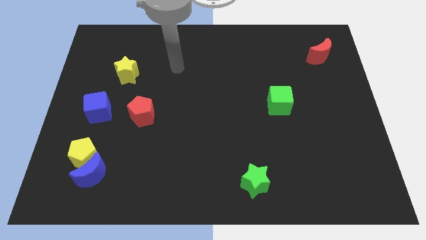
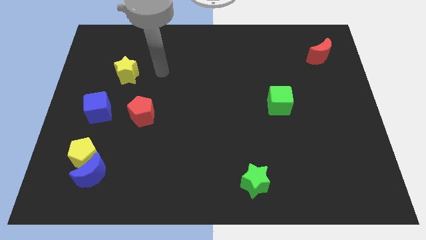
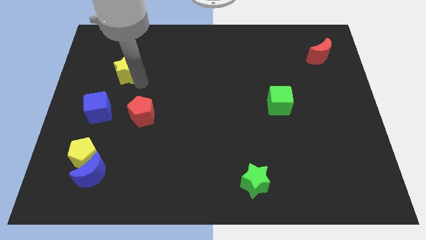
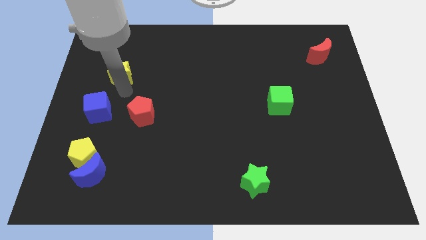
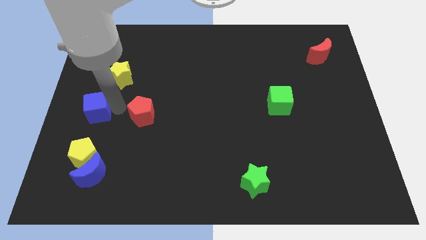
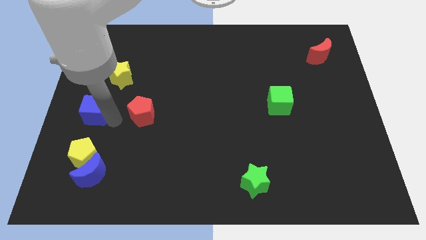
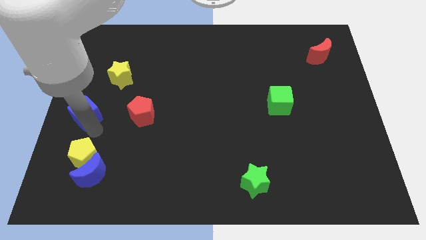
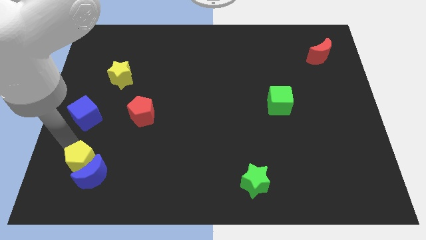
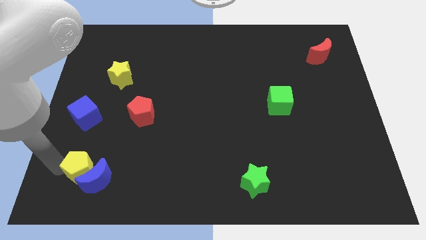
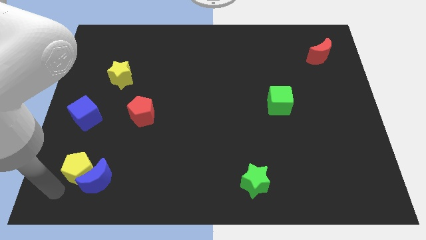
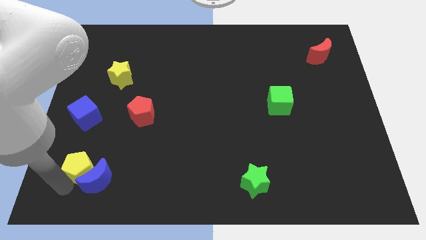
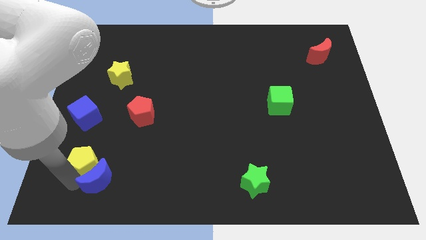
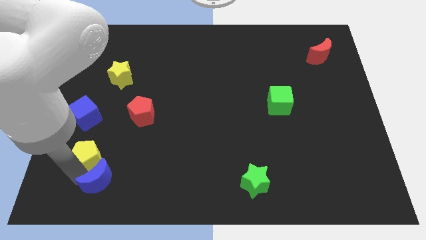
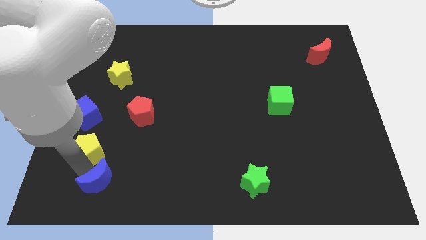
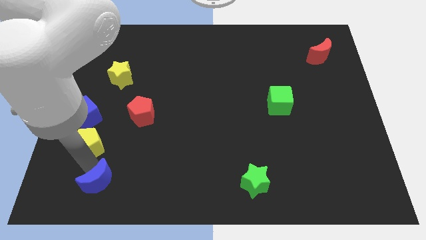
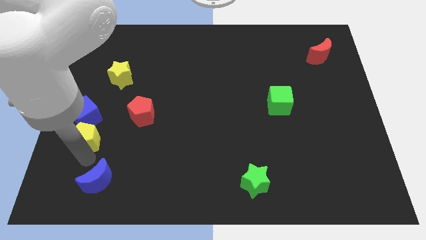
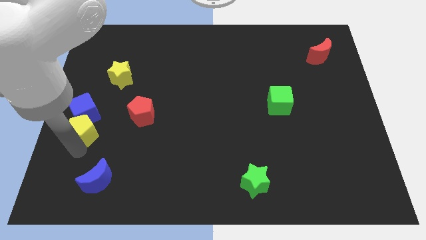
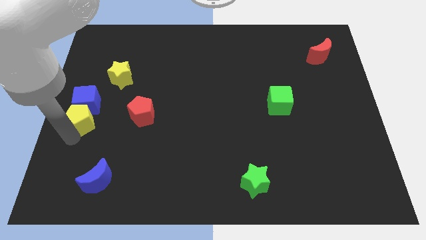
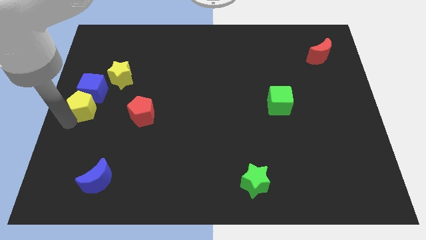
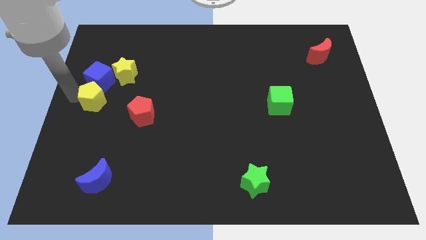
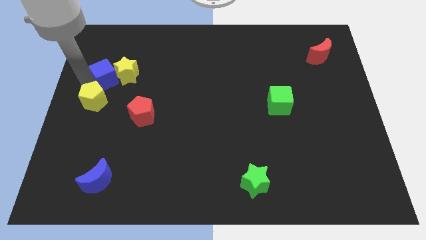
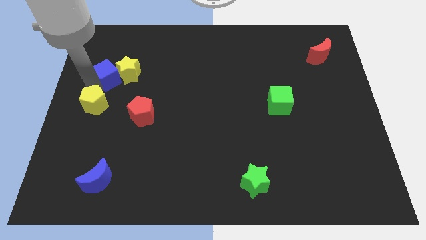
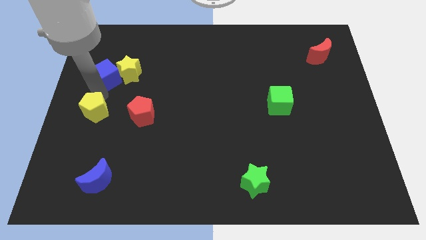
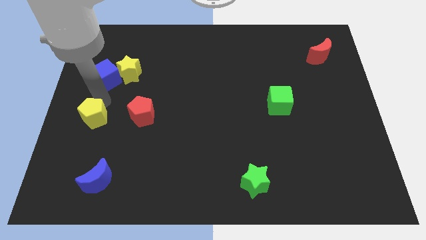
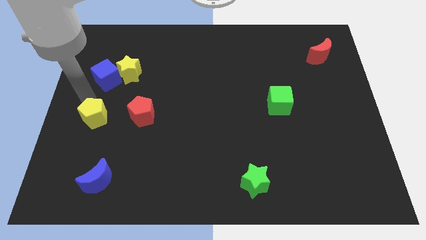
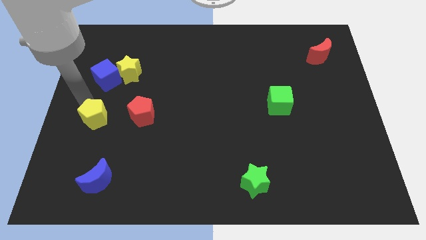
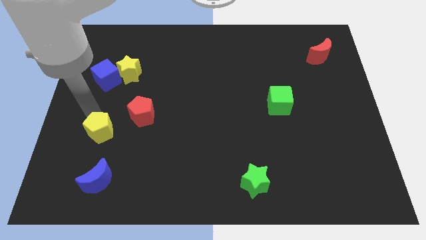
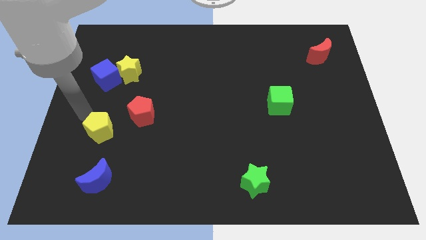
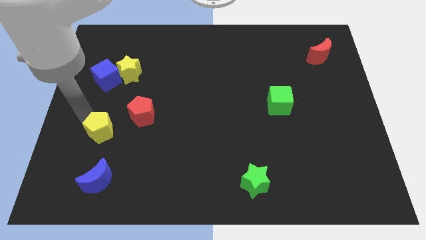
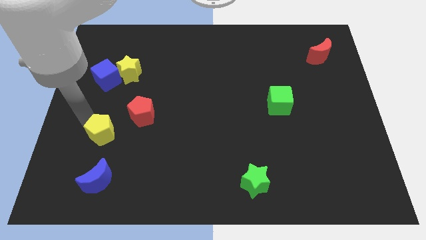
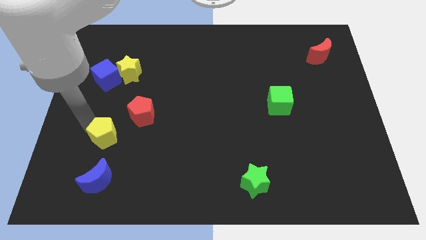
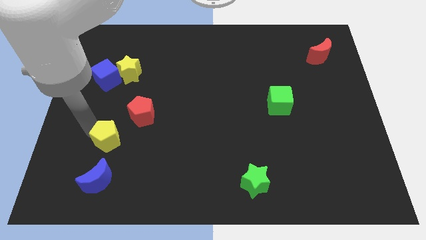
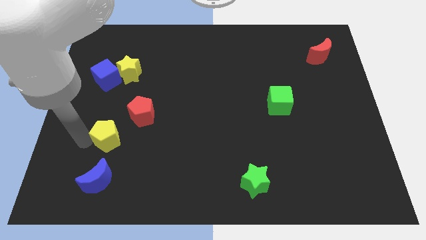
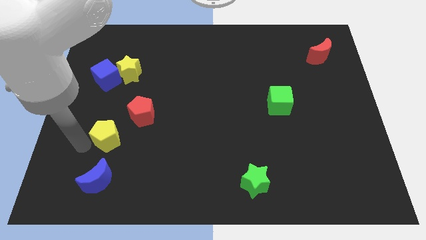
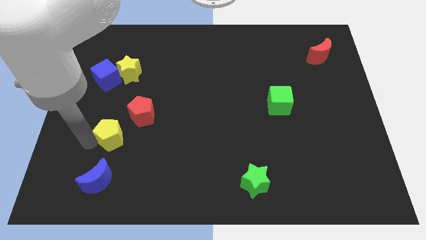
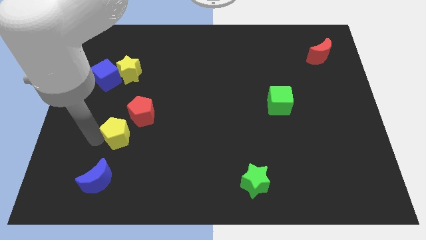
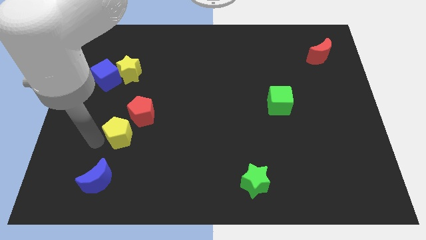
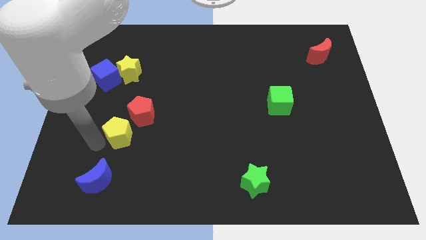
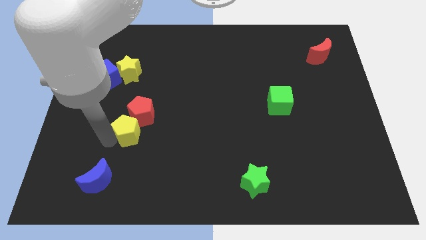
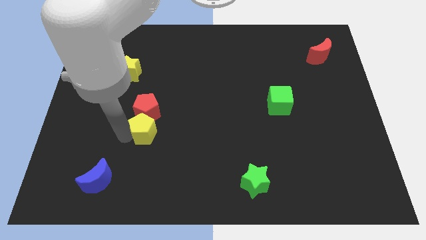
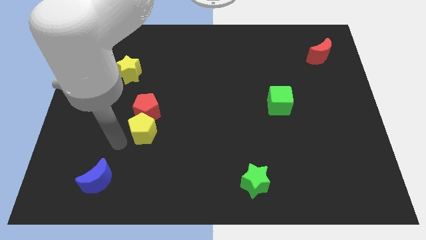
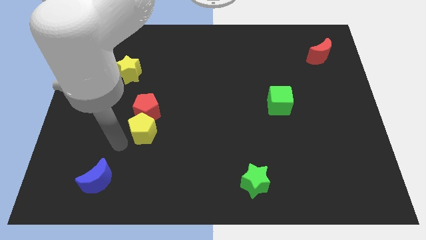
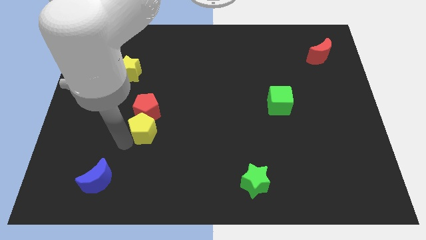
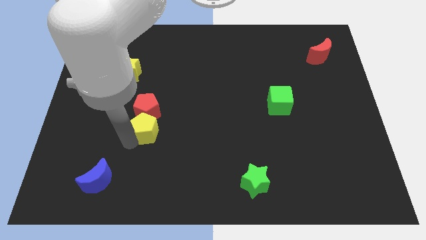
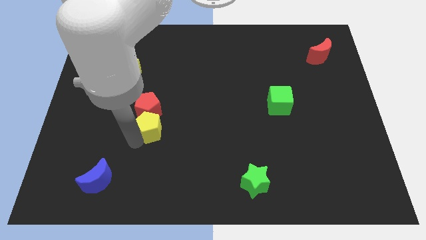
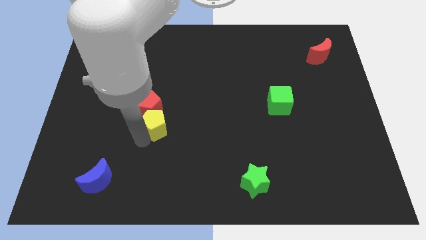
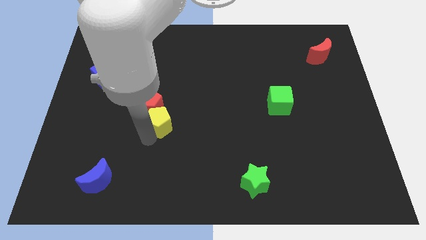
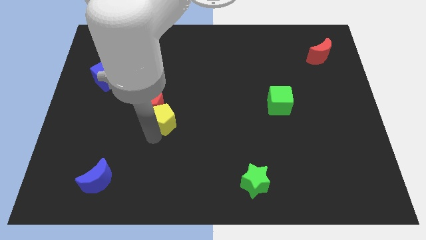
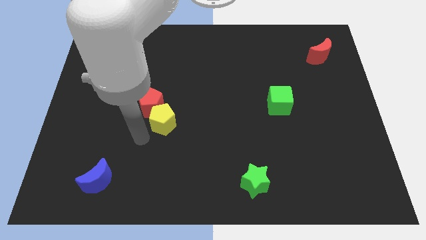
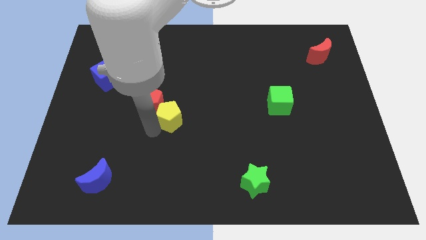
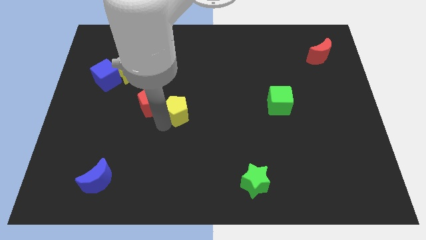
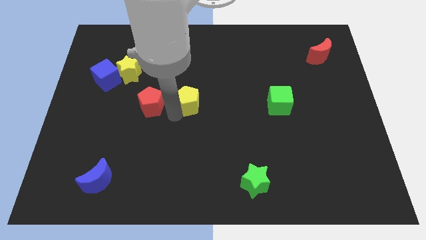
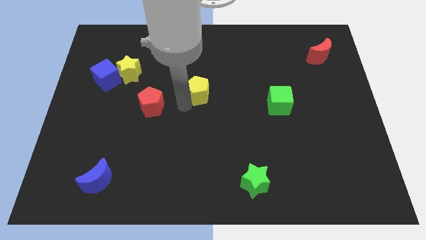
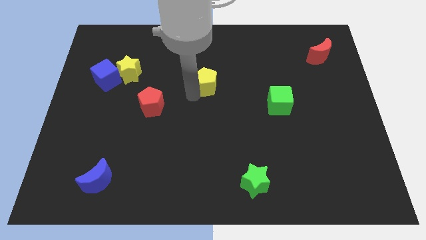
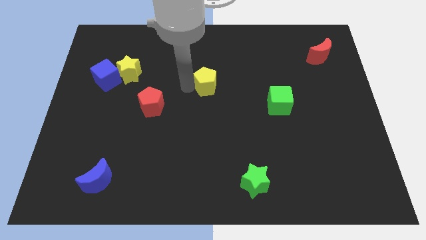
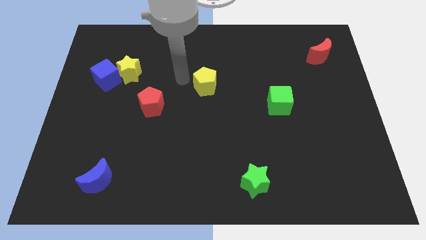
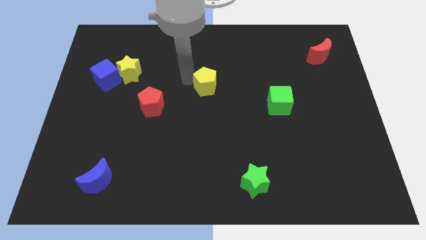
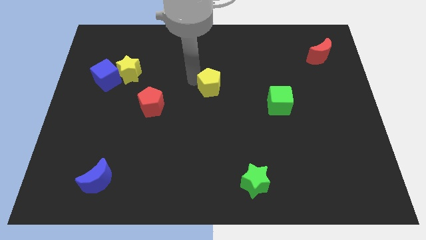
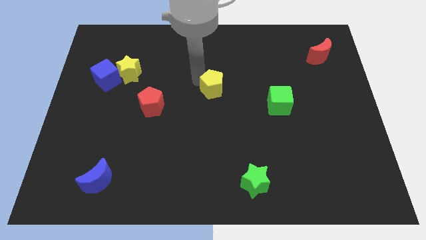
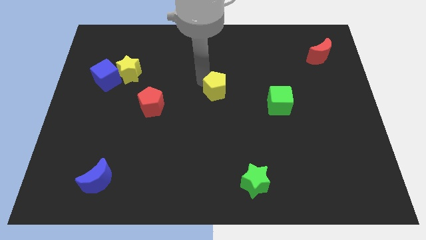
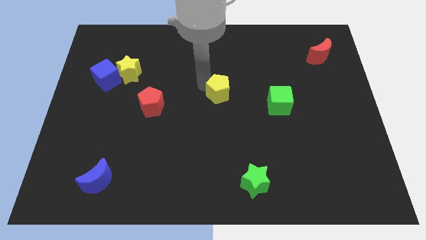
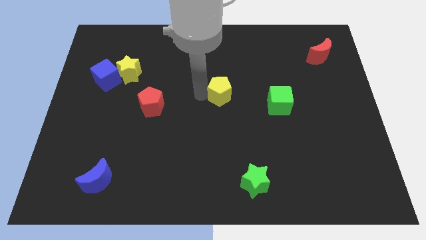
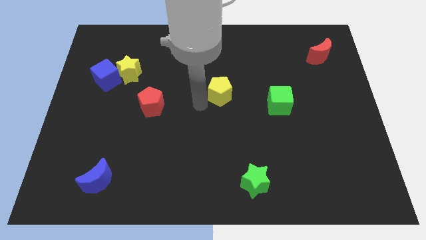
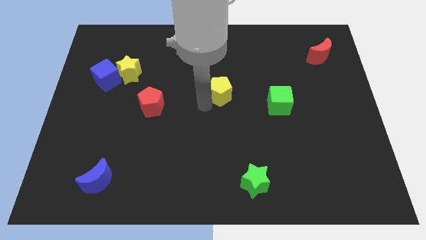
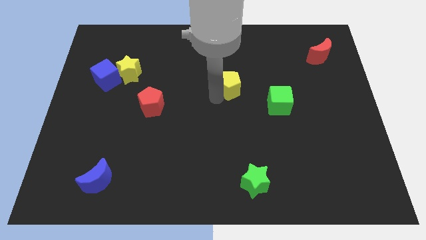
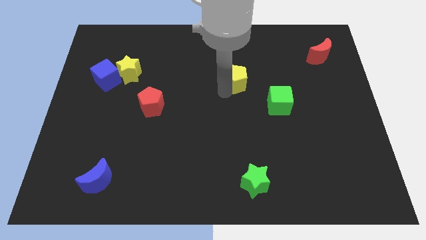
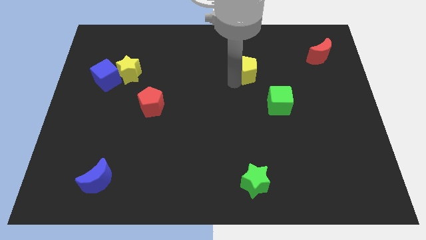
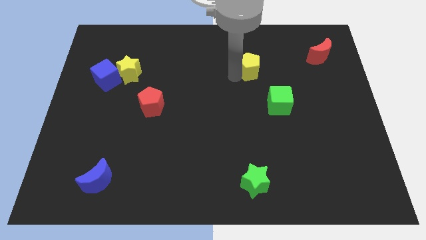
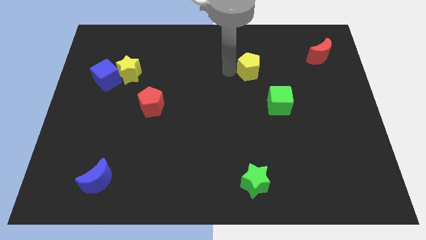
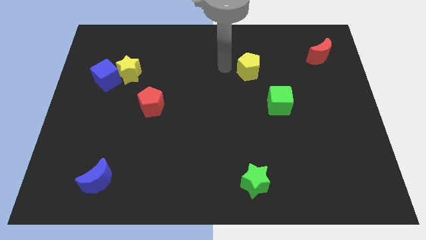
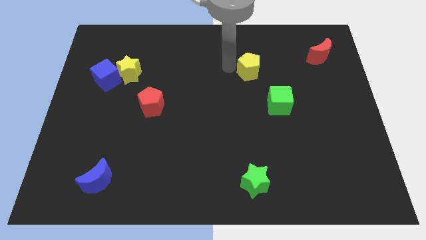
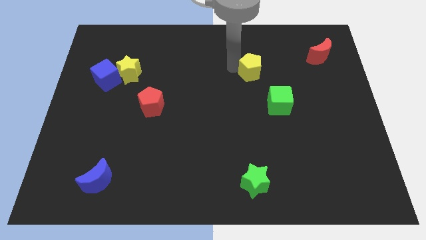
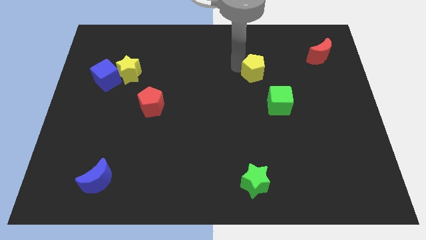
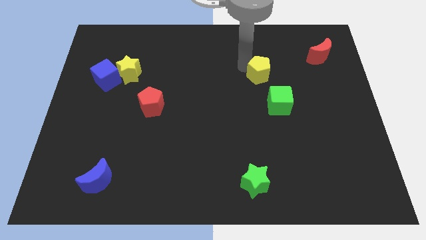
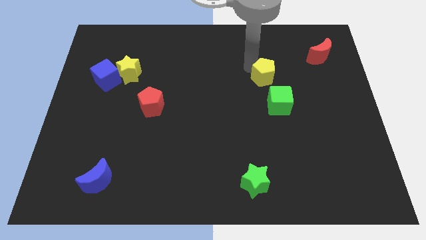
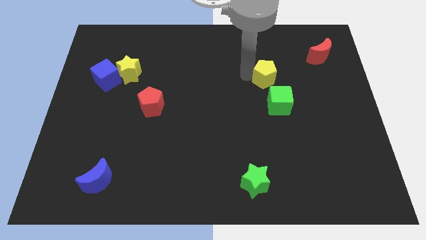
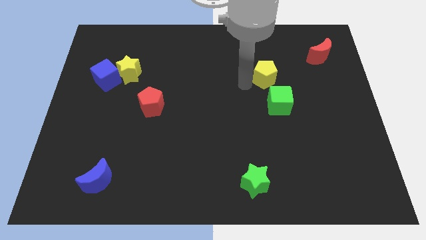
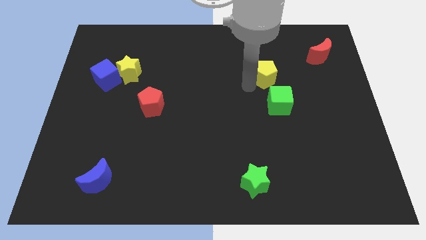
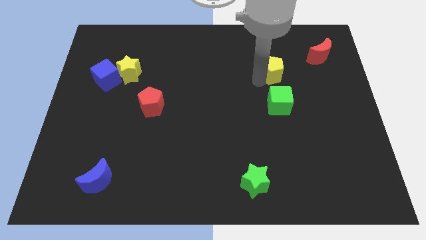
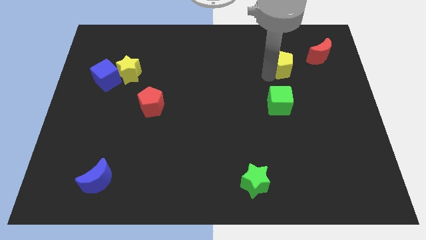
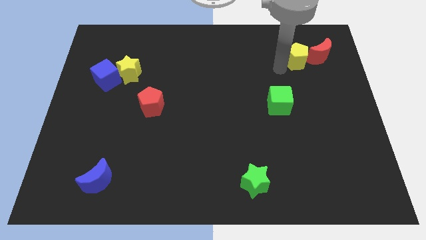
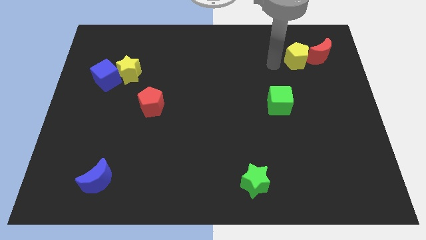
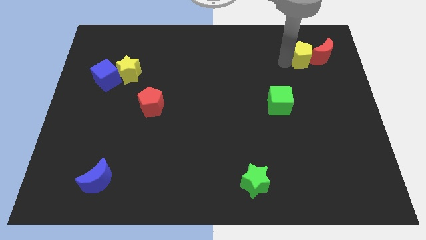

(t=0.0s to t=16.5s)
move the yellow pentagon towards the red moon
